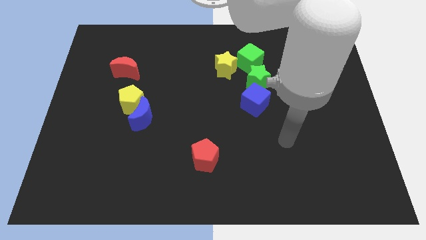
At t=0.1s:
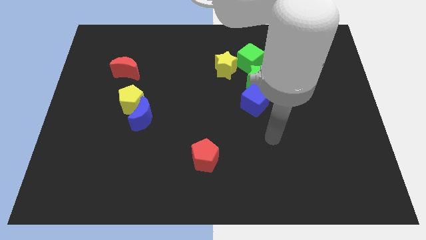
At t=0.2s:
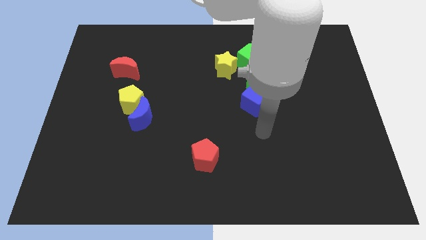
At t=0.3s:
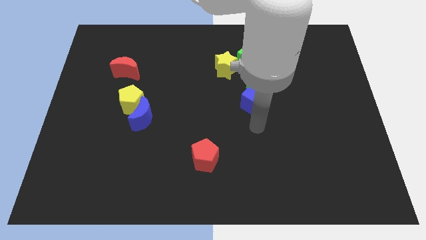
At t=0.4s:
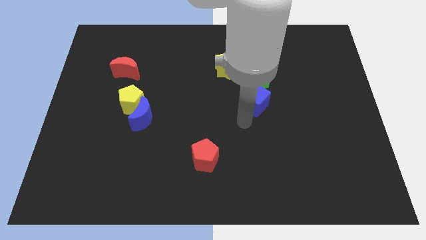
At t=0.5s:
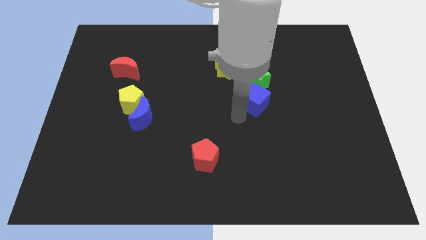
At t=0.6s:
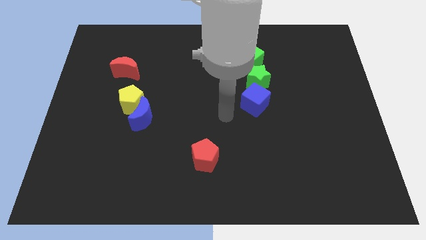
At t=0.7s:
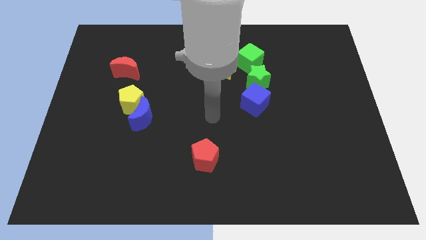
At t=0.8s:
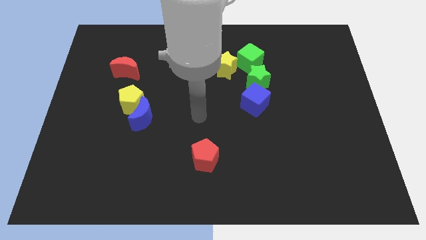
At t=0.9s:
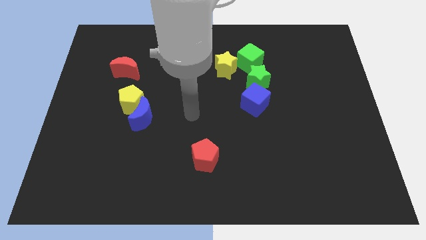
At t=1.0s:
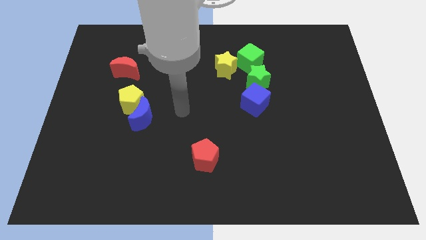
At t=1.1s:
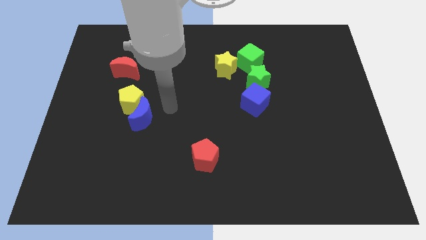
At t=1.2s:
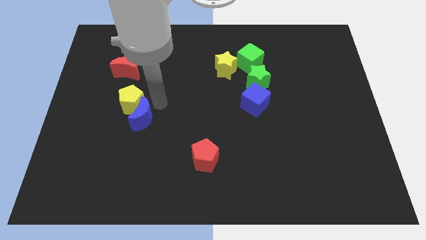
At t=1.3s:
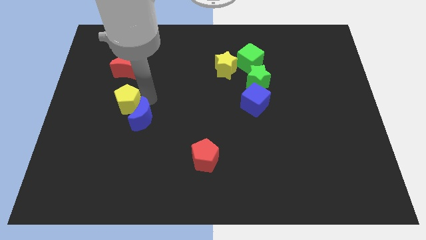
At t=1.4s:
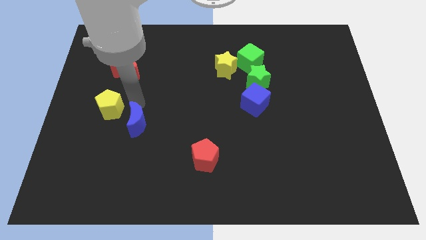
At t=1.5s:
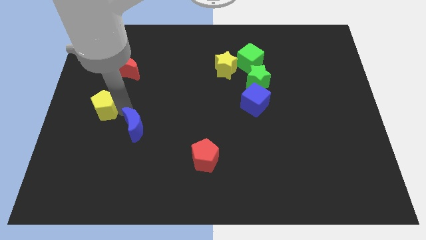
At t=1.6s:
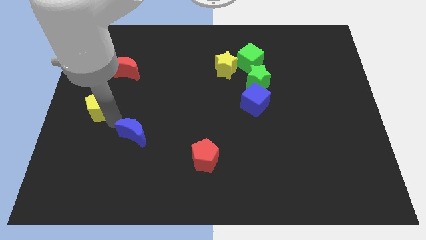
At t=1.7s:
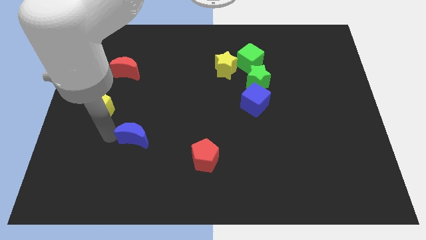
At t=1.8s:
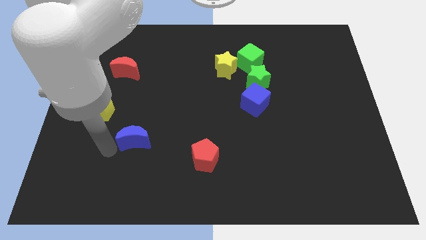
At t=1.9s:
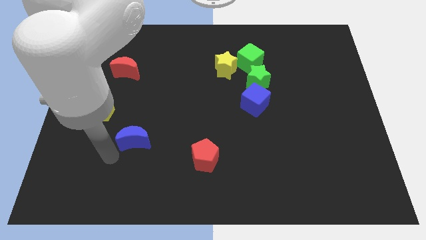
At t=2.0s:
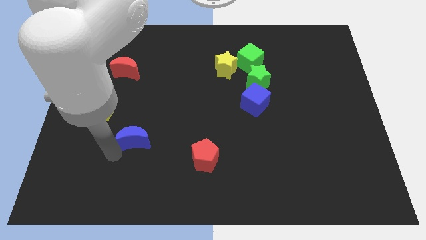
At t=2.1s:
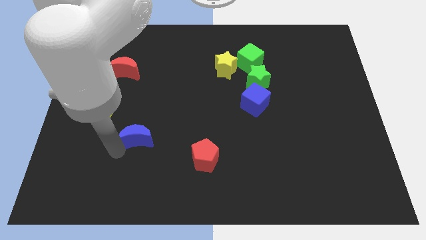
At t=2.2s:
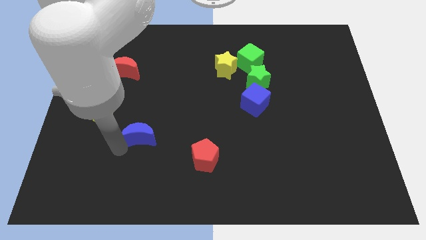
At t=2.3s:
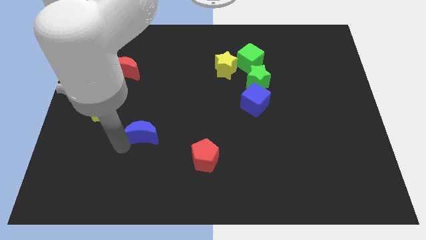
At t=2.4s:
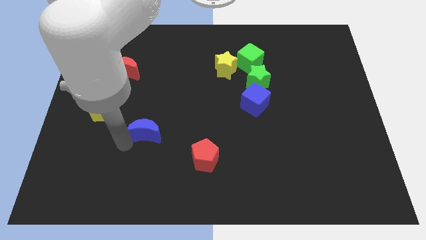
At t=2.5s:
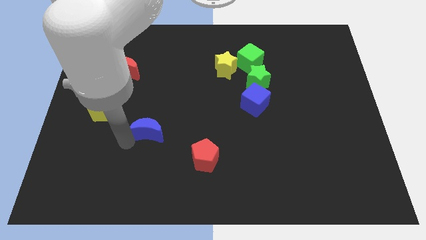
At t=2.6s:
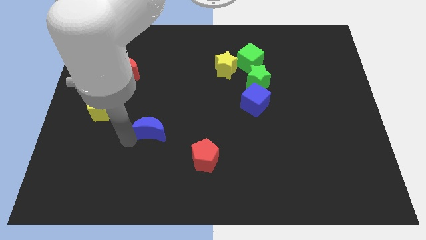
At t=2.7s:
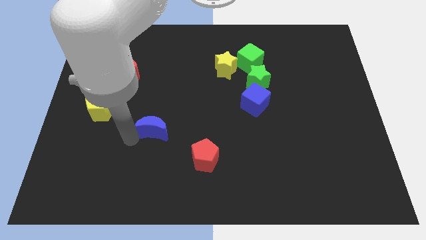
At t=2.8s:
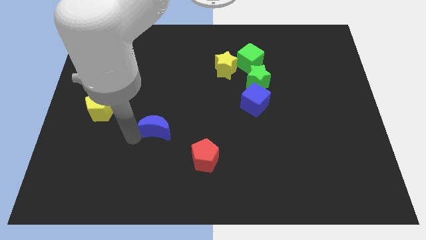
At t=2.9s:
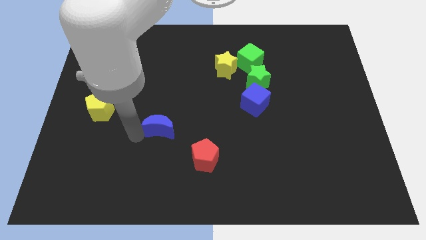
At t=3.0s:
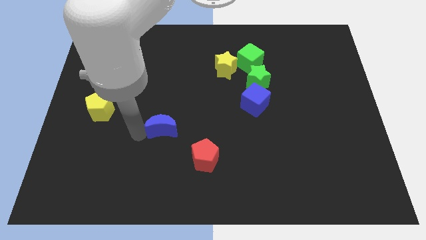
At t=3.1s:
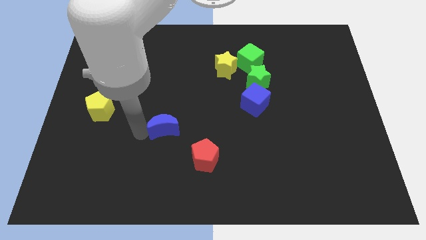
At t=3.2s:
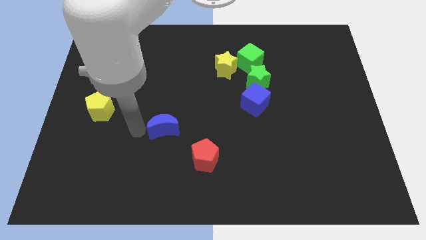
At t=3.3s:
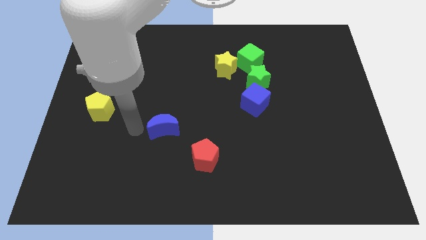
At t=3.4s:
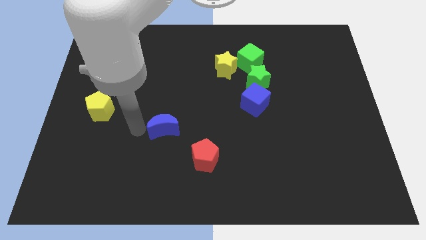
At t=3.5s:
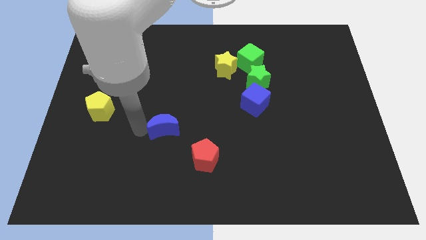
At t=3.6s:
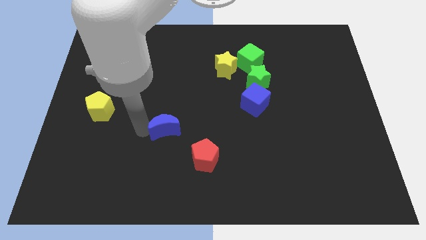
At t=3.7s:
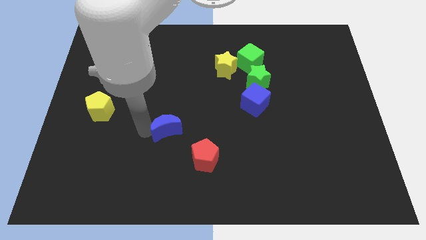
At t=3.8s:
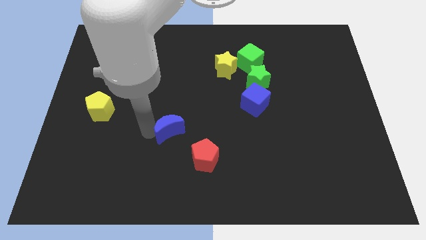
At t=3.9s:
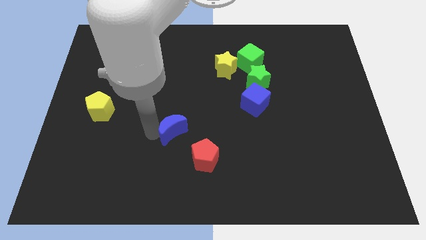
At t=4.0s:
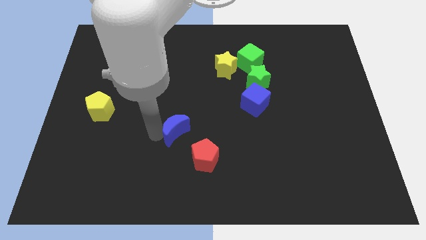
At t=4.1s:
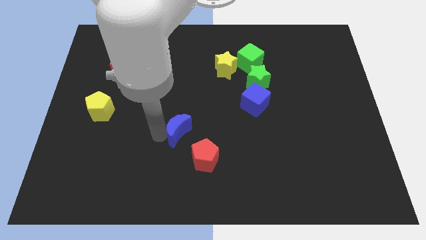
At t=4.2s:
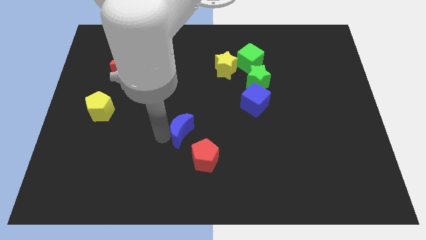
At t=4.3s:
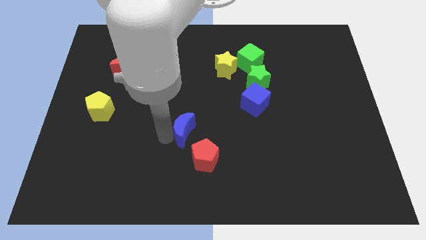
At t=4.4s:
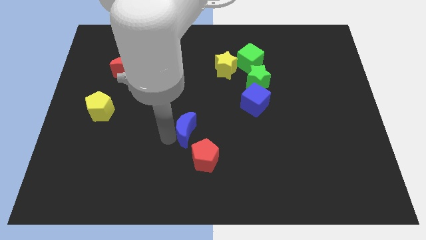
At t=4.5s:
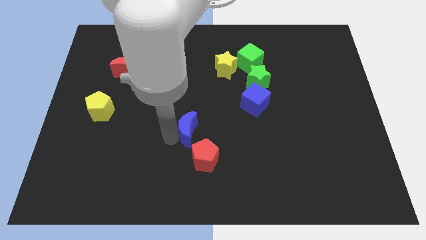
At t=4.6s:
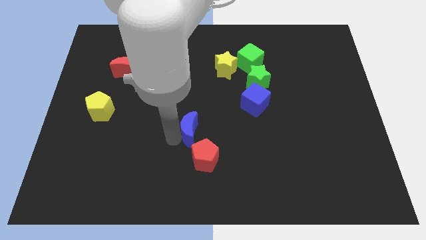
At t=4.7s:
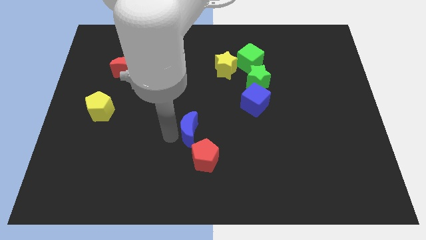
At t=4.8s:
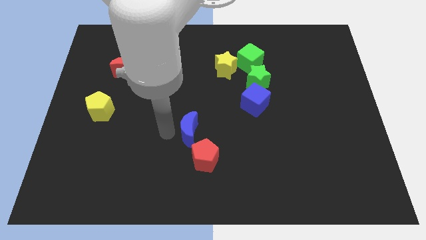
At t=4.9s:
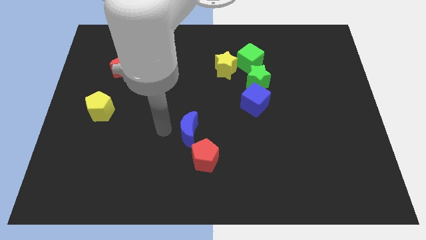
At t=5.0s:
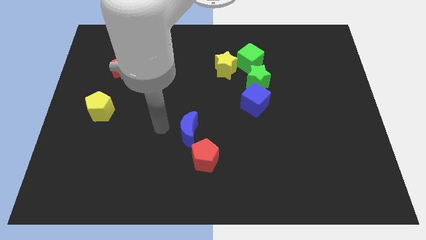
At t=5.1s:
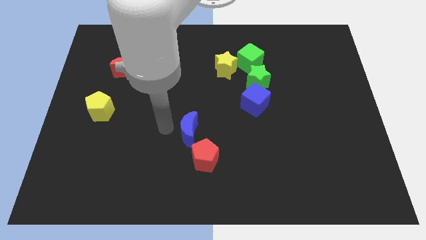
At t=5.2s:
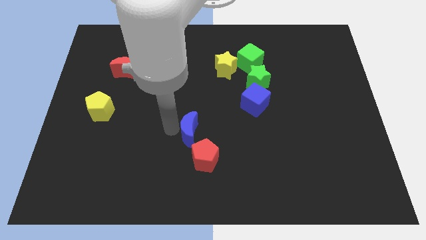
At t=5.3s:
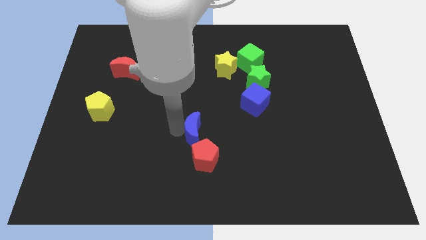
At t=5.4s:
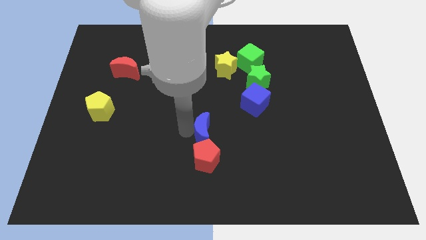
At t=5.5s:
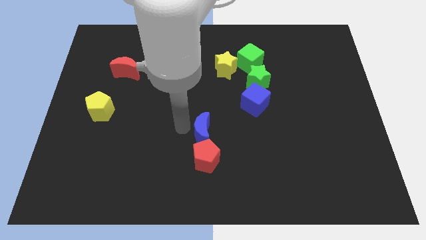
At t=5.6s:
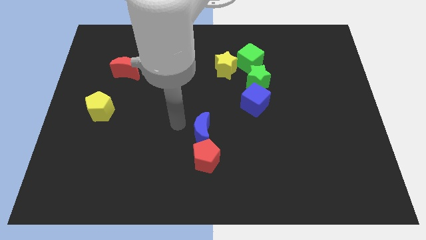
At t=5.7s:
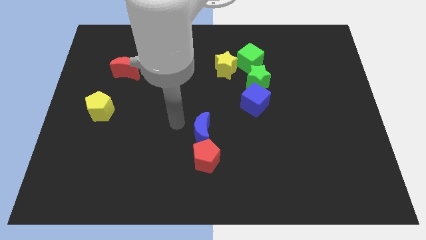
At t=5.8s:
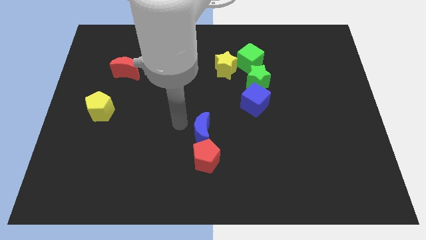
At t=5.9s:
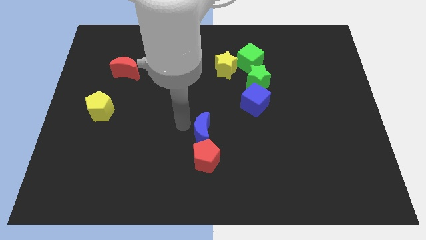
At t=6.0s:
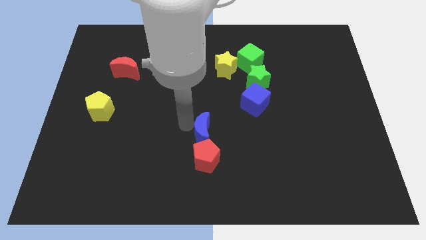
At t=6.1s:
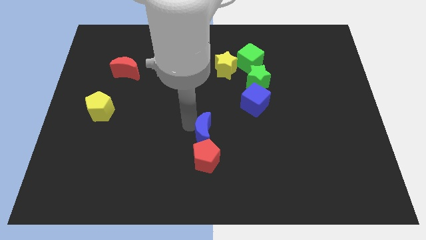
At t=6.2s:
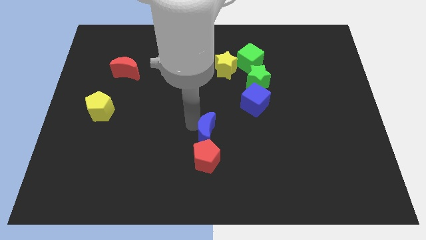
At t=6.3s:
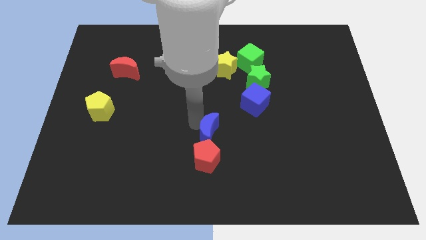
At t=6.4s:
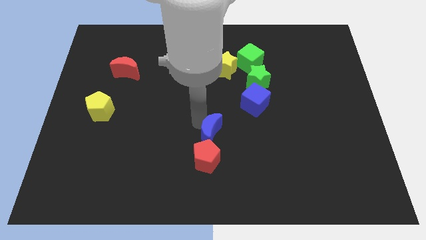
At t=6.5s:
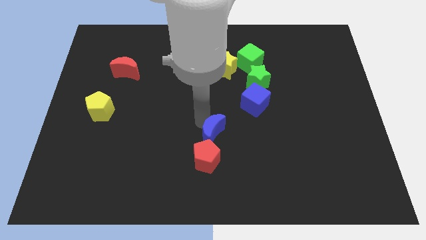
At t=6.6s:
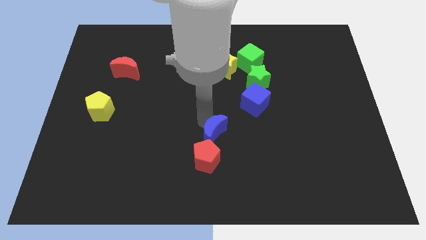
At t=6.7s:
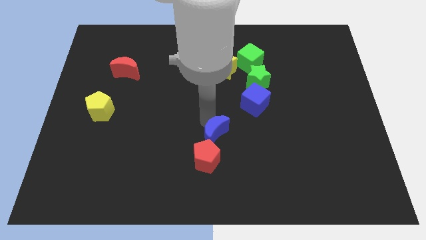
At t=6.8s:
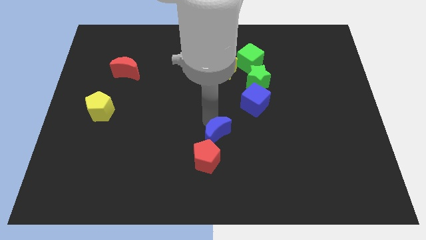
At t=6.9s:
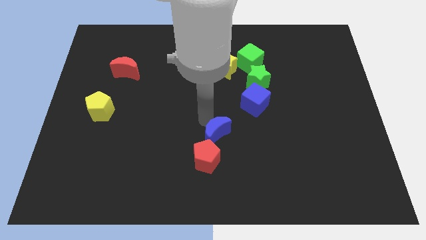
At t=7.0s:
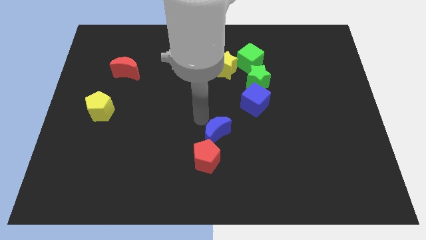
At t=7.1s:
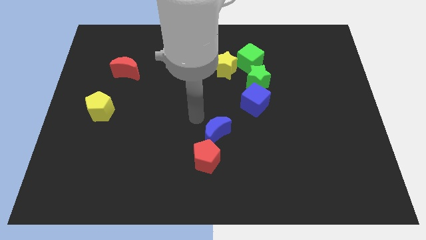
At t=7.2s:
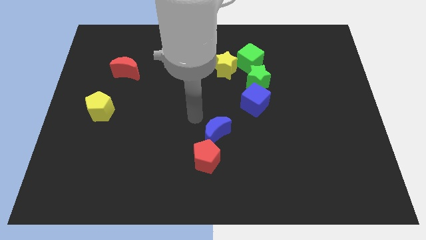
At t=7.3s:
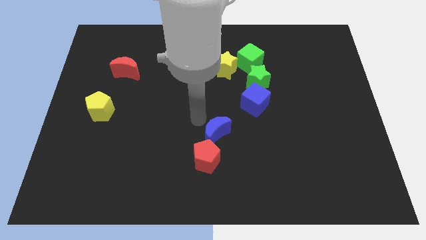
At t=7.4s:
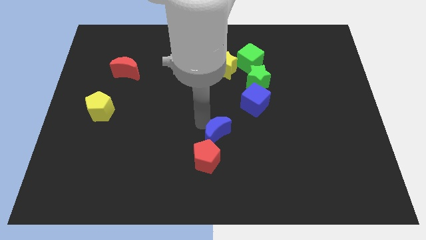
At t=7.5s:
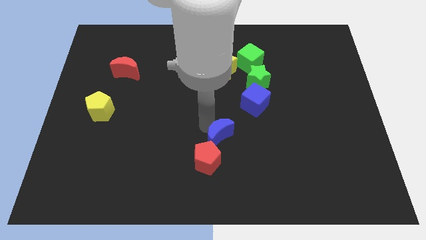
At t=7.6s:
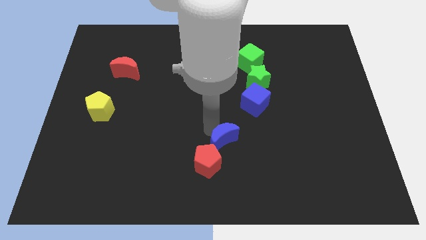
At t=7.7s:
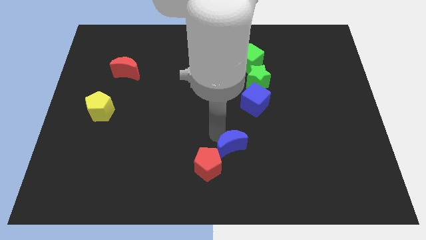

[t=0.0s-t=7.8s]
slide the blue moon to the right side of the red pentagon

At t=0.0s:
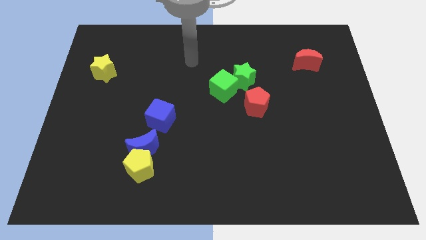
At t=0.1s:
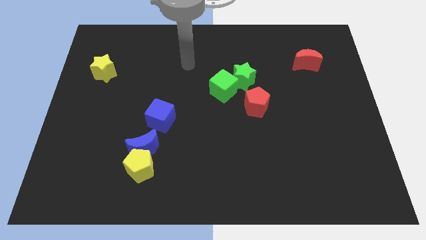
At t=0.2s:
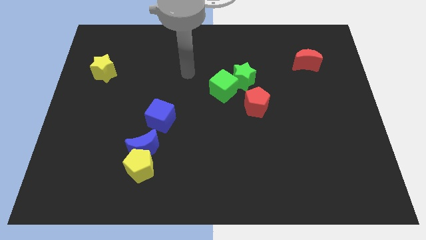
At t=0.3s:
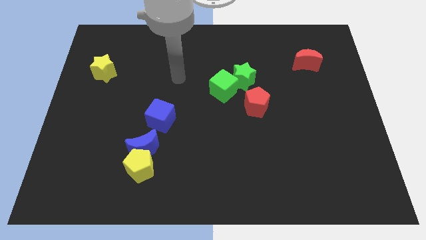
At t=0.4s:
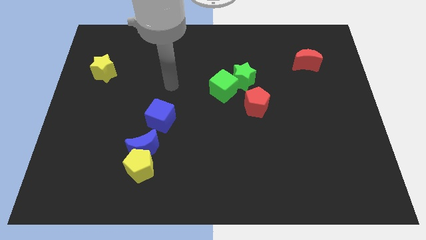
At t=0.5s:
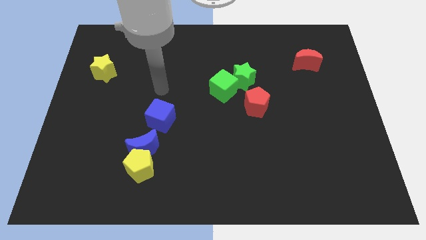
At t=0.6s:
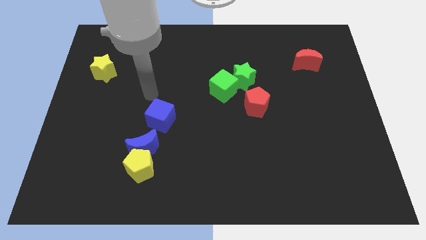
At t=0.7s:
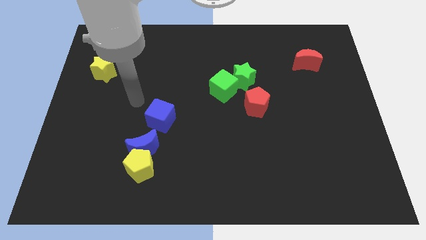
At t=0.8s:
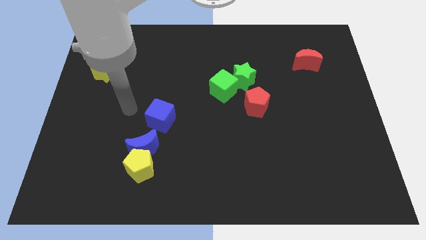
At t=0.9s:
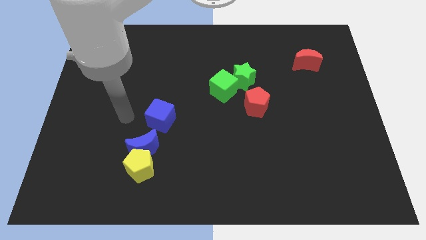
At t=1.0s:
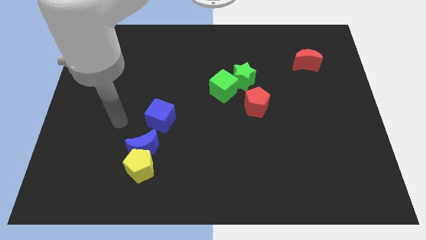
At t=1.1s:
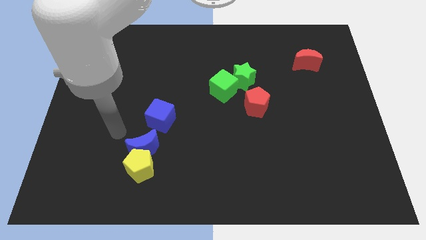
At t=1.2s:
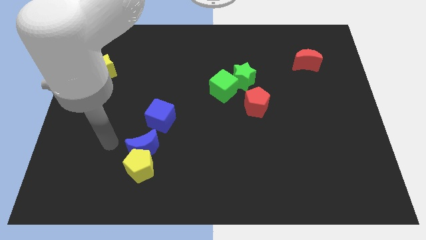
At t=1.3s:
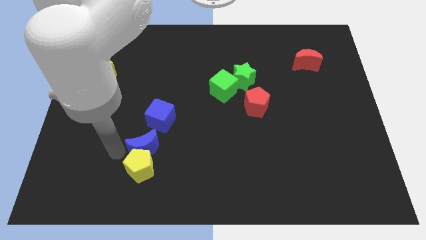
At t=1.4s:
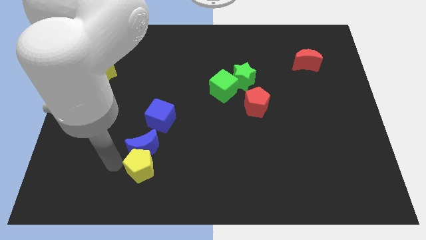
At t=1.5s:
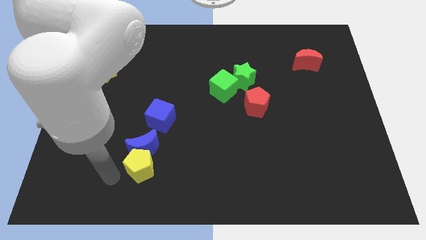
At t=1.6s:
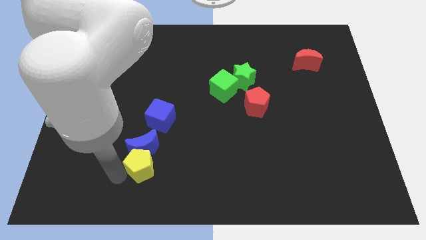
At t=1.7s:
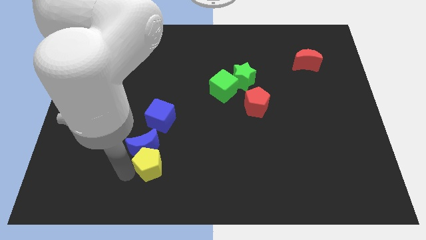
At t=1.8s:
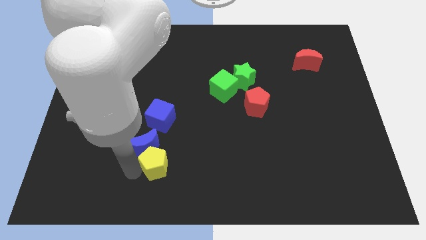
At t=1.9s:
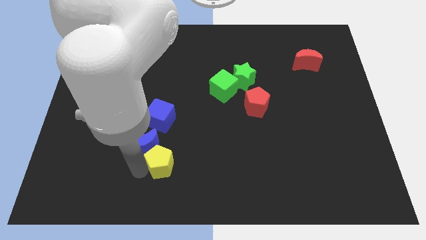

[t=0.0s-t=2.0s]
slide the yellow pentagon right of the blue moon
